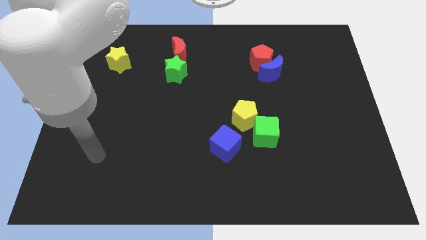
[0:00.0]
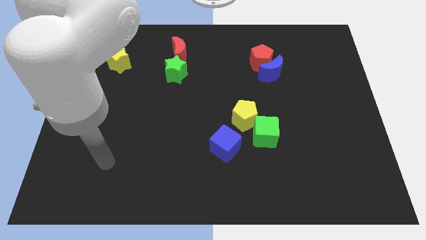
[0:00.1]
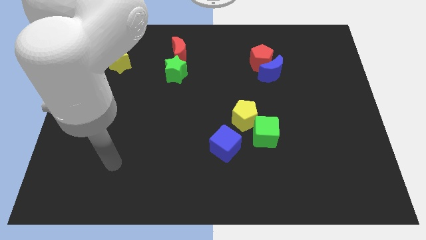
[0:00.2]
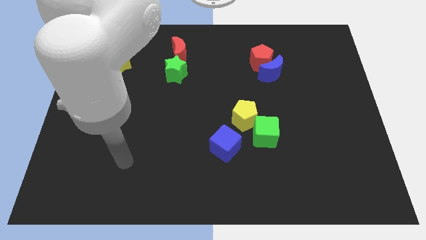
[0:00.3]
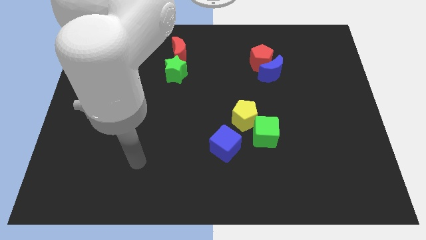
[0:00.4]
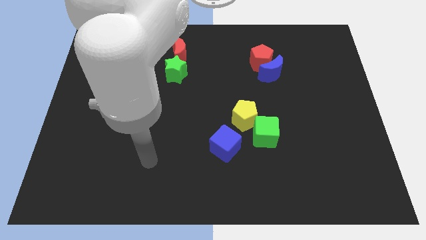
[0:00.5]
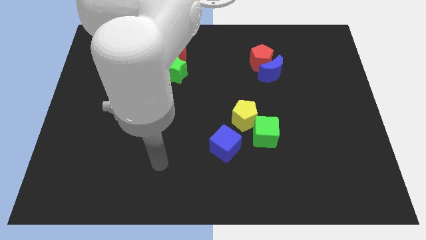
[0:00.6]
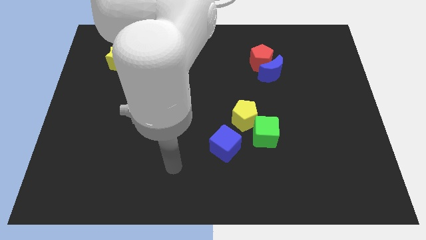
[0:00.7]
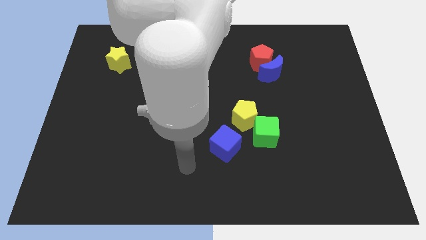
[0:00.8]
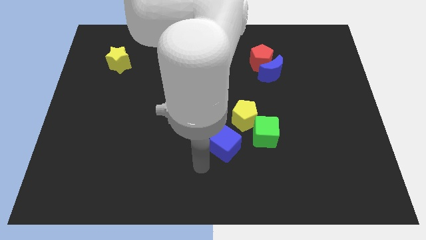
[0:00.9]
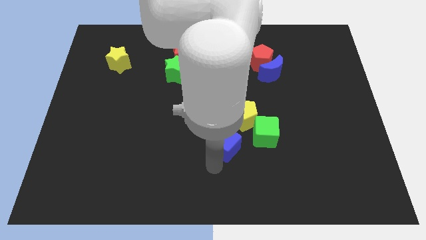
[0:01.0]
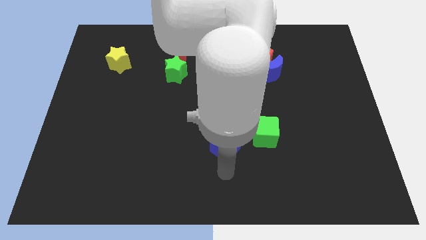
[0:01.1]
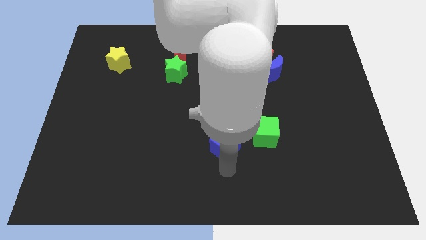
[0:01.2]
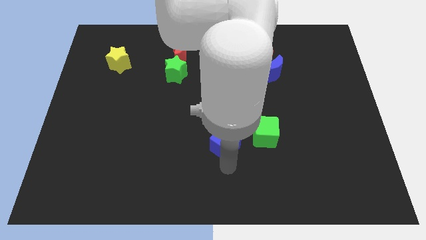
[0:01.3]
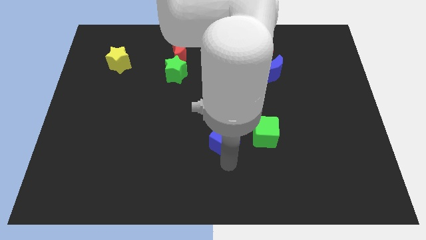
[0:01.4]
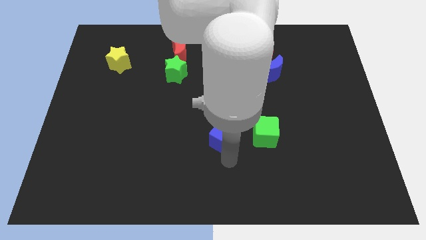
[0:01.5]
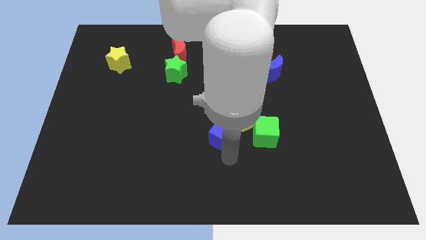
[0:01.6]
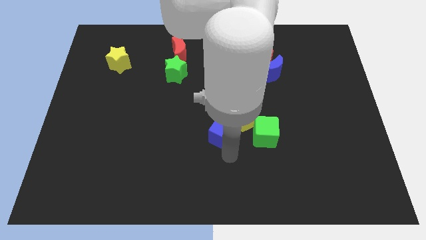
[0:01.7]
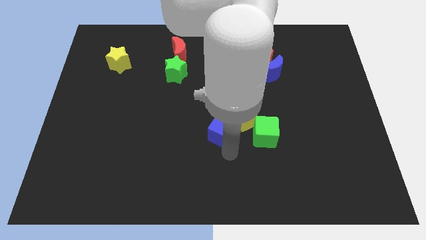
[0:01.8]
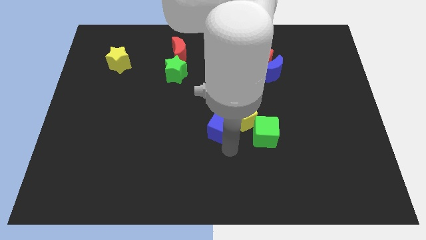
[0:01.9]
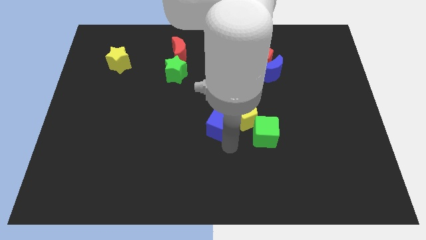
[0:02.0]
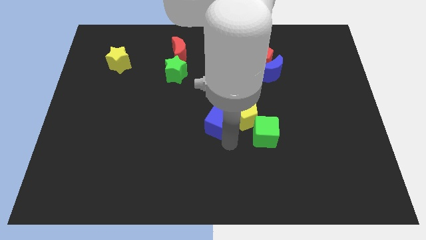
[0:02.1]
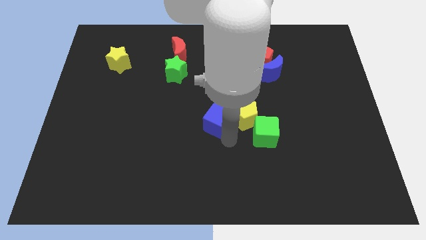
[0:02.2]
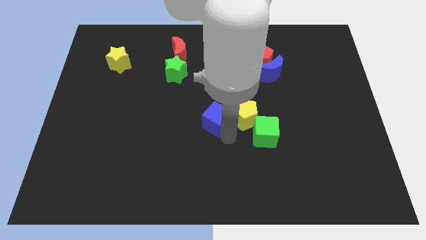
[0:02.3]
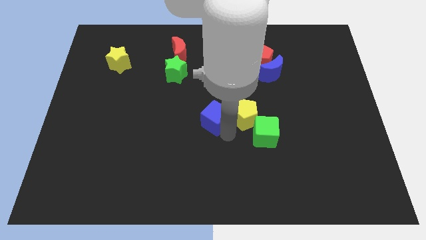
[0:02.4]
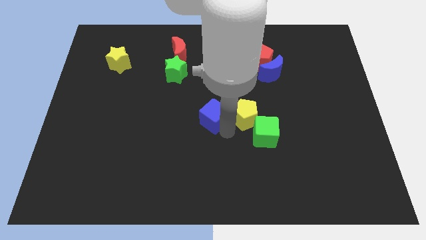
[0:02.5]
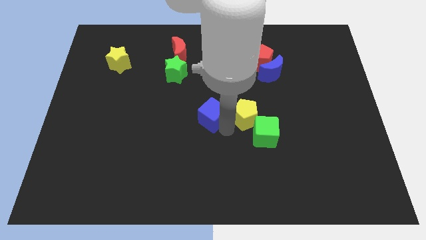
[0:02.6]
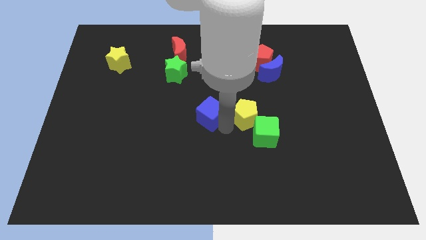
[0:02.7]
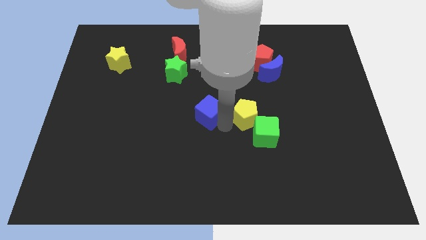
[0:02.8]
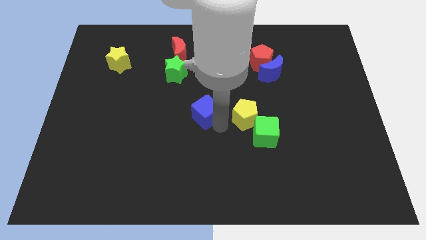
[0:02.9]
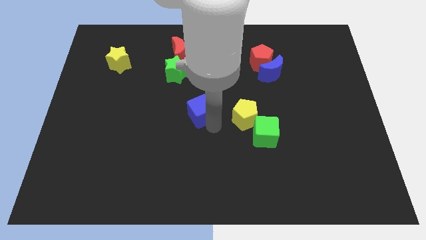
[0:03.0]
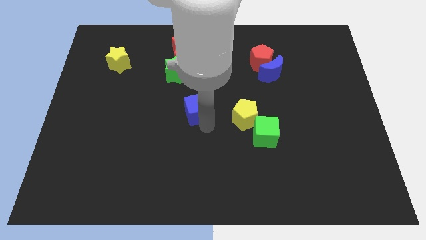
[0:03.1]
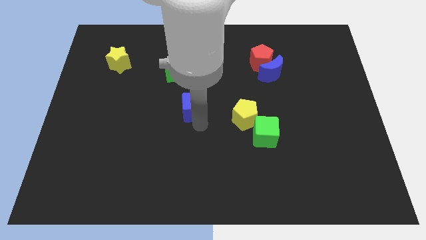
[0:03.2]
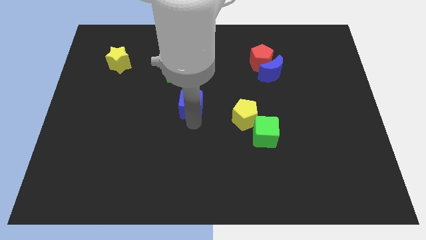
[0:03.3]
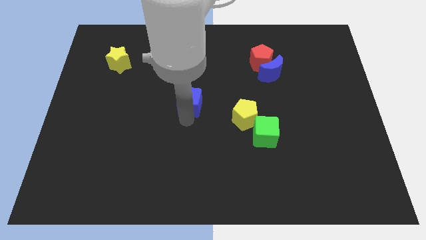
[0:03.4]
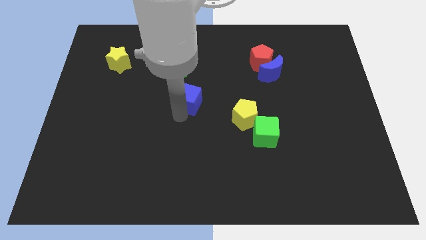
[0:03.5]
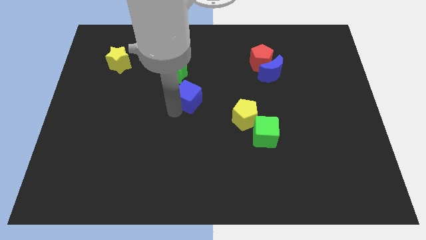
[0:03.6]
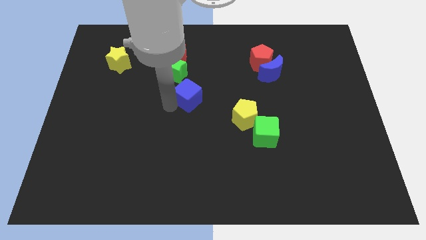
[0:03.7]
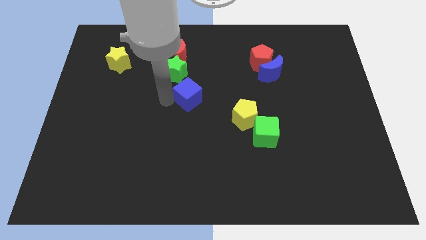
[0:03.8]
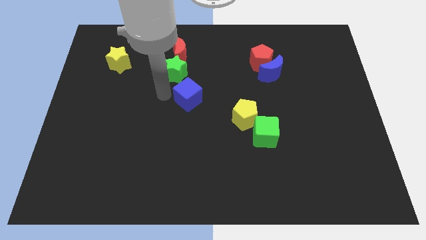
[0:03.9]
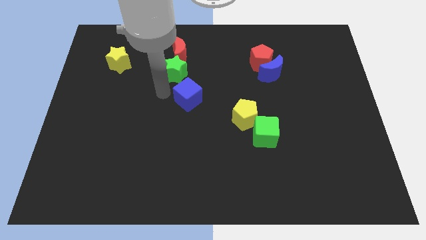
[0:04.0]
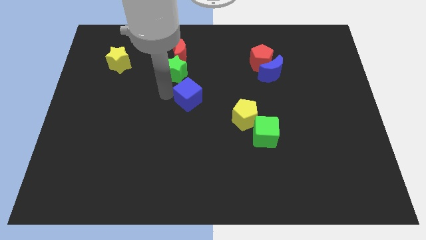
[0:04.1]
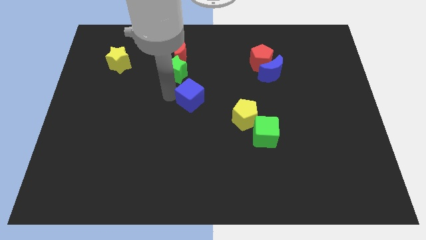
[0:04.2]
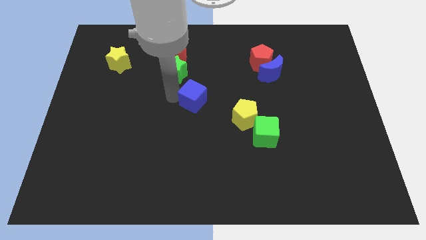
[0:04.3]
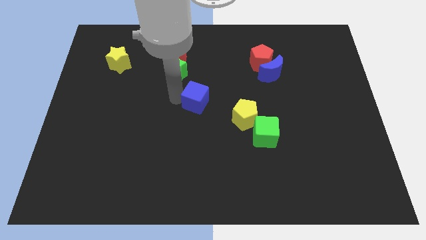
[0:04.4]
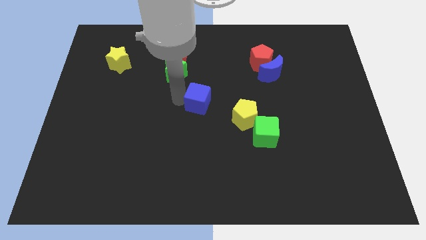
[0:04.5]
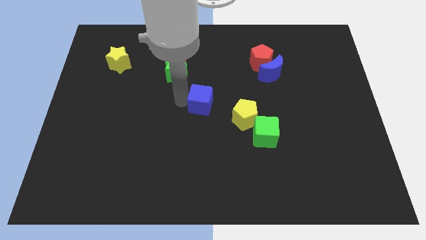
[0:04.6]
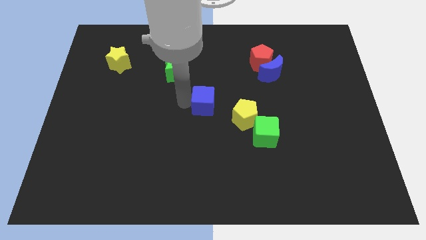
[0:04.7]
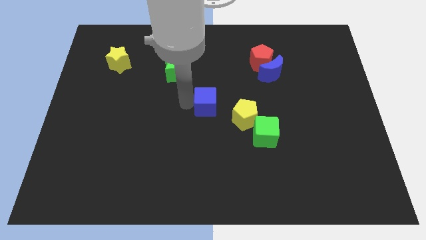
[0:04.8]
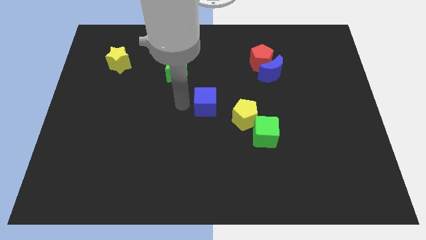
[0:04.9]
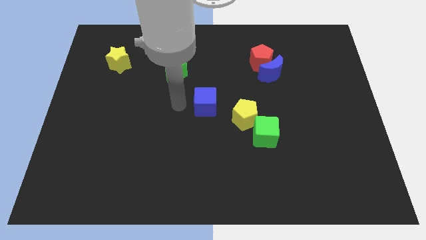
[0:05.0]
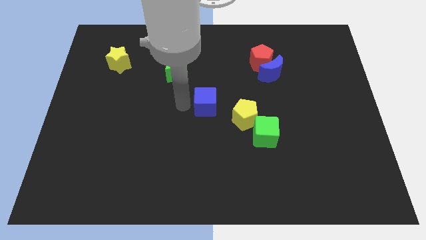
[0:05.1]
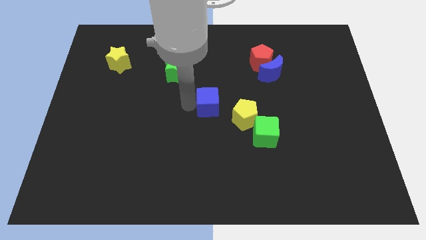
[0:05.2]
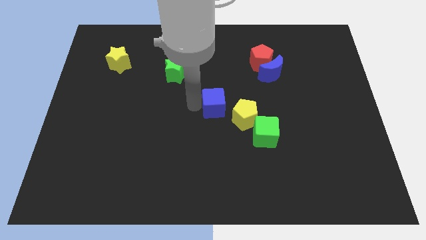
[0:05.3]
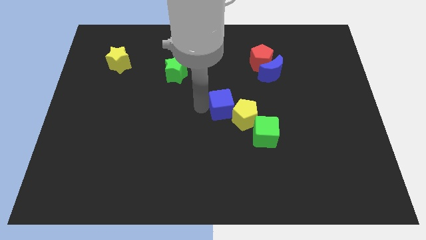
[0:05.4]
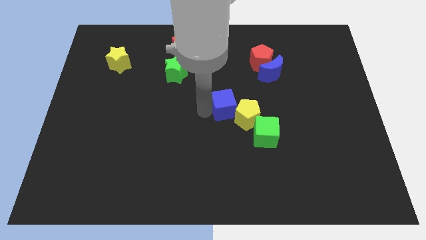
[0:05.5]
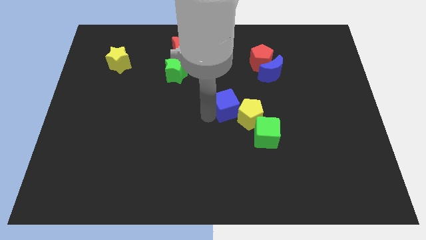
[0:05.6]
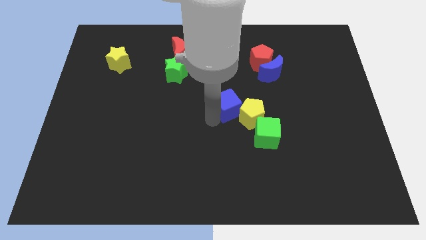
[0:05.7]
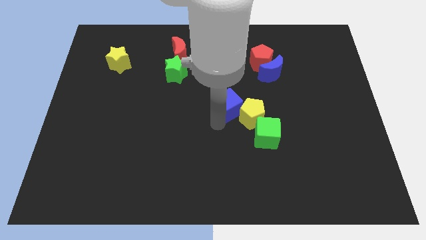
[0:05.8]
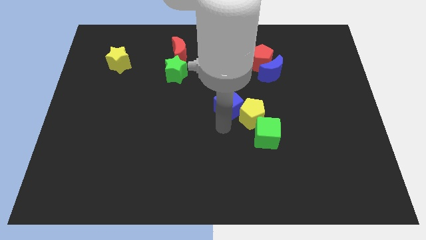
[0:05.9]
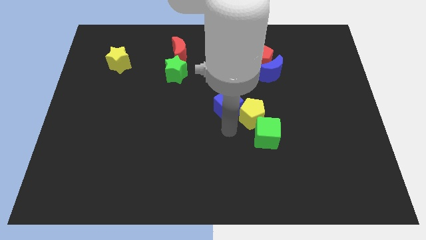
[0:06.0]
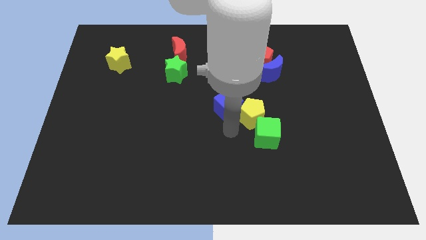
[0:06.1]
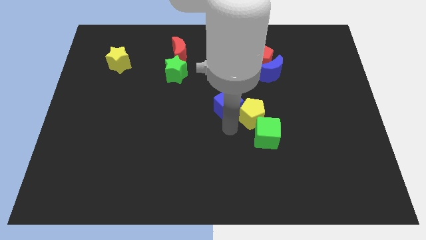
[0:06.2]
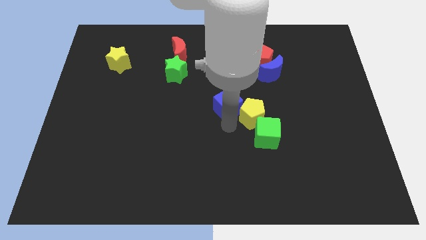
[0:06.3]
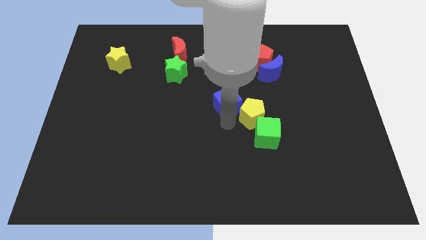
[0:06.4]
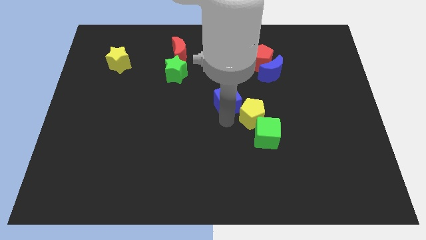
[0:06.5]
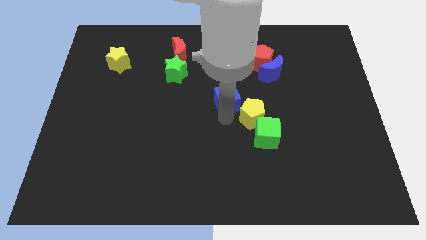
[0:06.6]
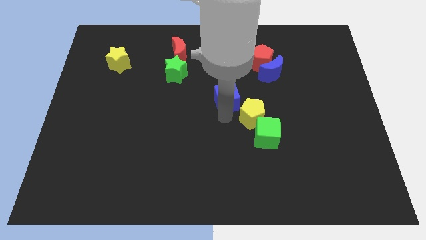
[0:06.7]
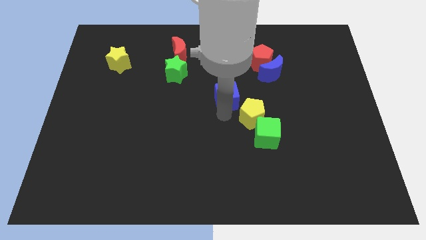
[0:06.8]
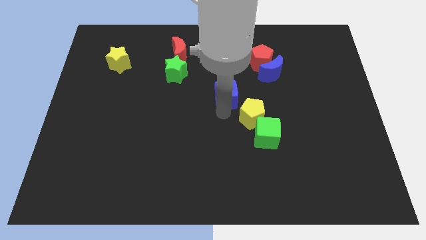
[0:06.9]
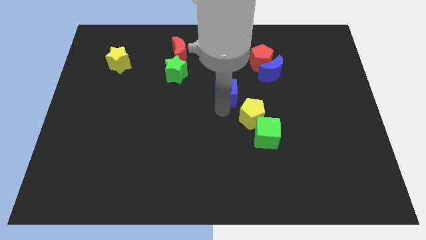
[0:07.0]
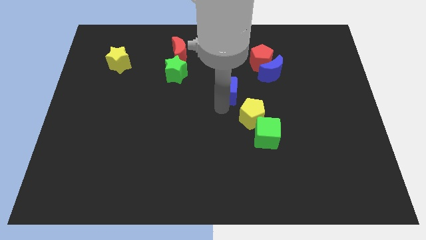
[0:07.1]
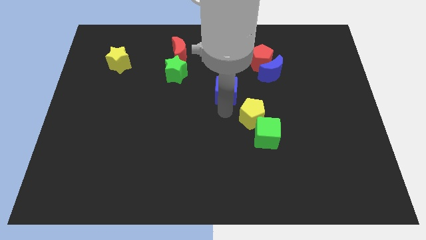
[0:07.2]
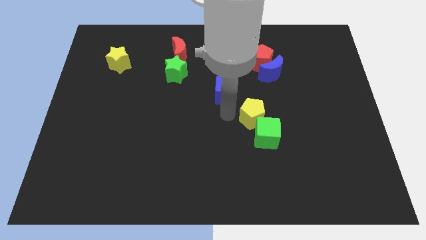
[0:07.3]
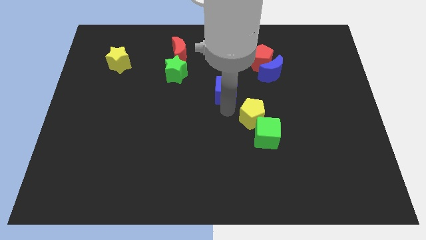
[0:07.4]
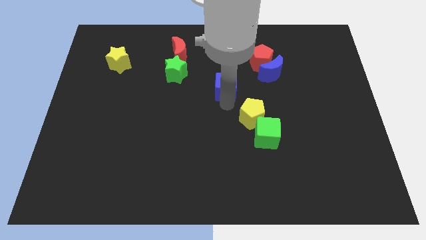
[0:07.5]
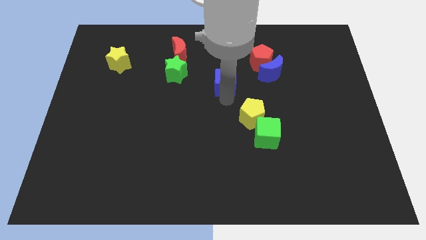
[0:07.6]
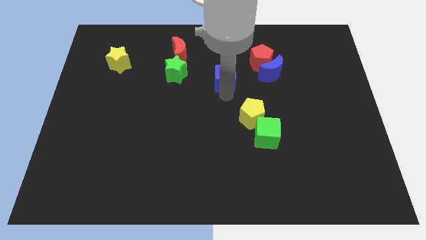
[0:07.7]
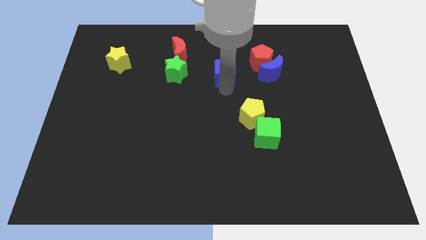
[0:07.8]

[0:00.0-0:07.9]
move the blue cube just left of the red pentagon
